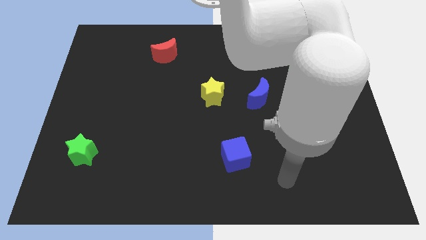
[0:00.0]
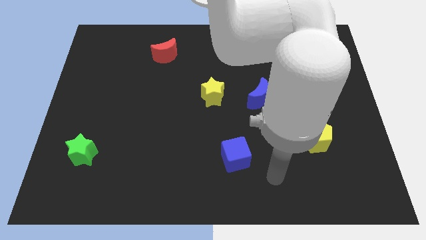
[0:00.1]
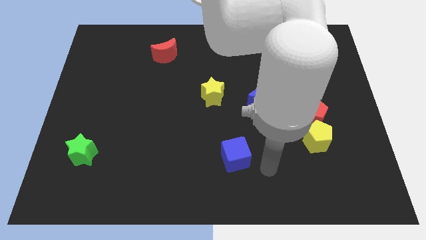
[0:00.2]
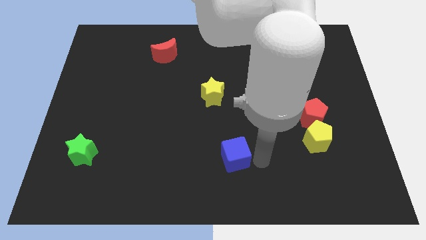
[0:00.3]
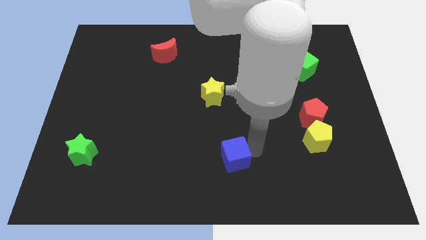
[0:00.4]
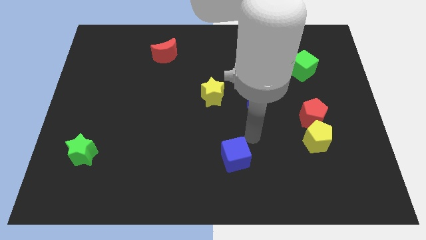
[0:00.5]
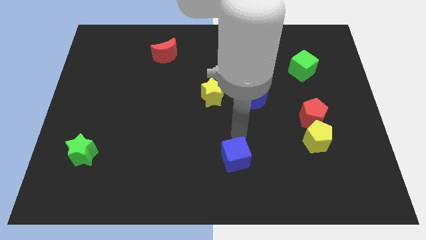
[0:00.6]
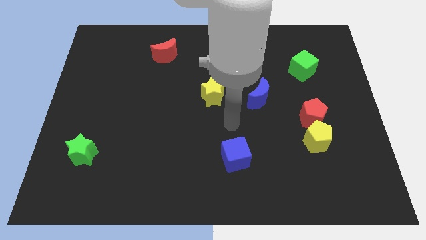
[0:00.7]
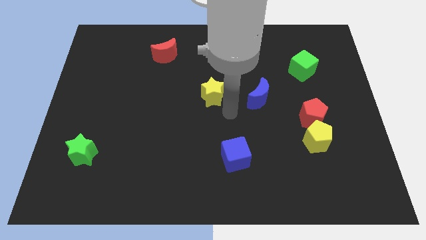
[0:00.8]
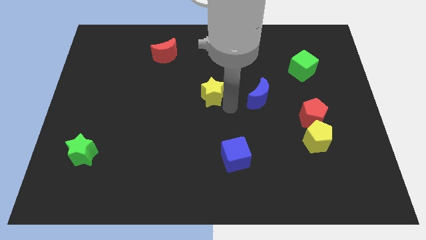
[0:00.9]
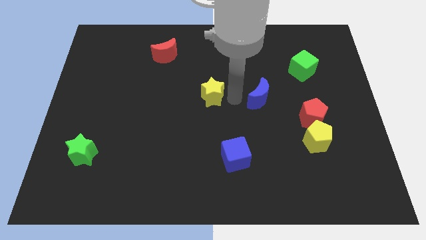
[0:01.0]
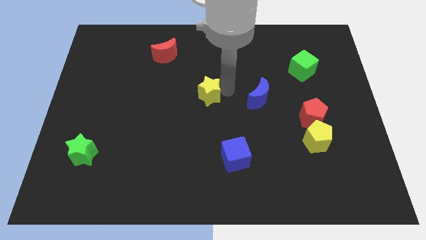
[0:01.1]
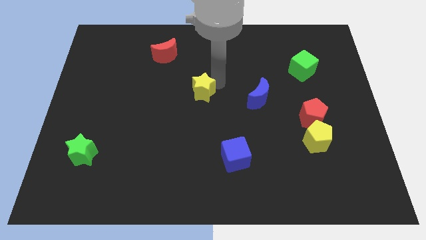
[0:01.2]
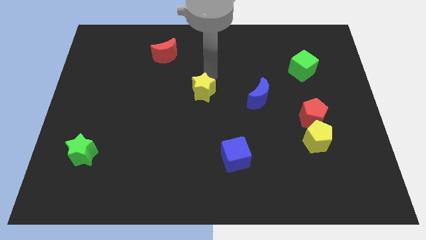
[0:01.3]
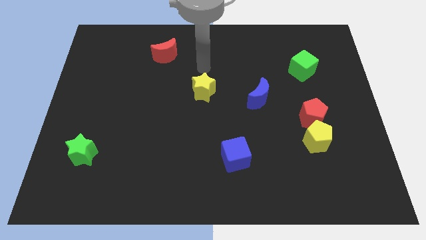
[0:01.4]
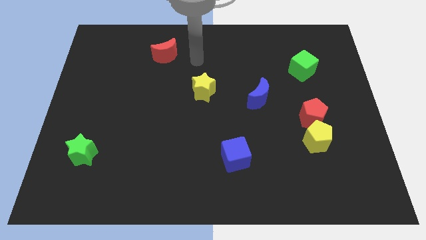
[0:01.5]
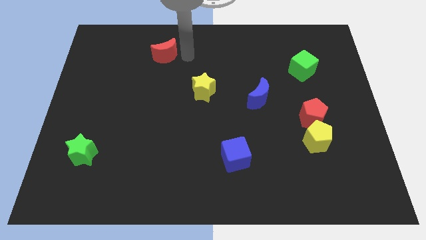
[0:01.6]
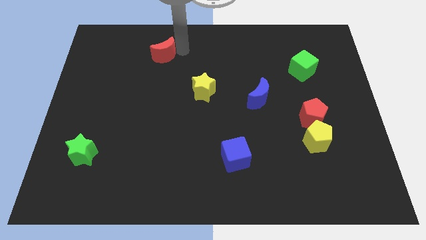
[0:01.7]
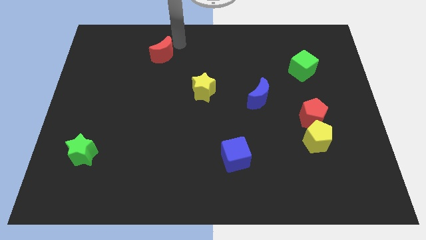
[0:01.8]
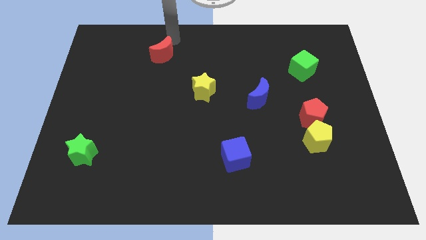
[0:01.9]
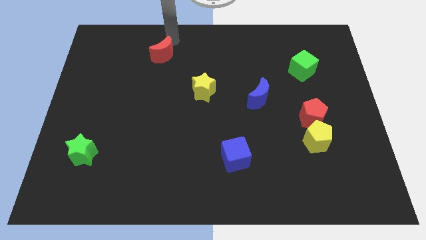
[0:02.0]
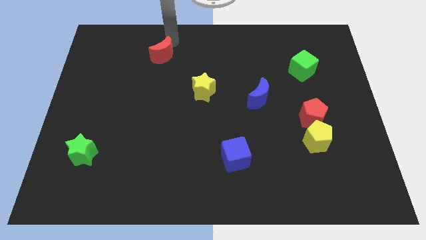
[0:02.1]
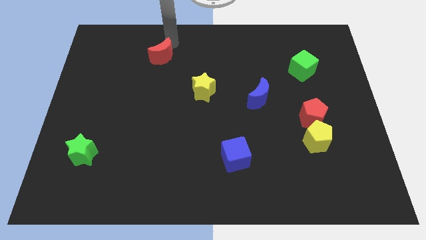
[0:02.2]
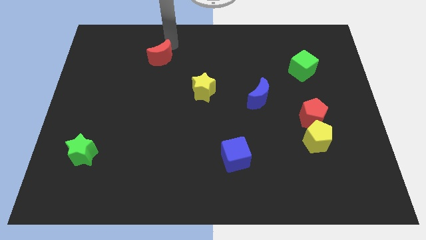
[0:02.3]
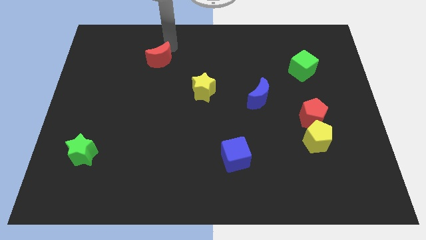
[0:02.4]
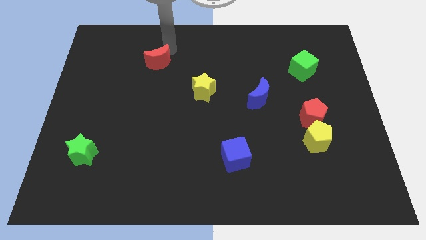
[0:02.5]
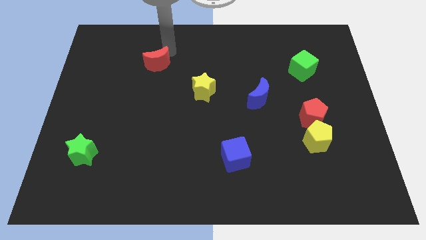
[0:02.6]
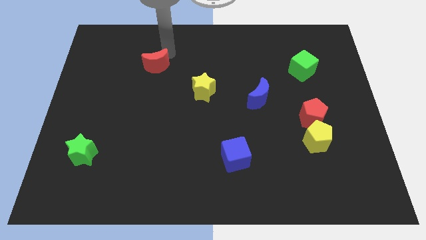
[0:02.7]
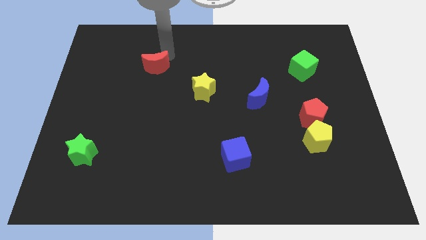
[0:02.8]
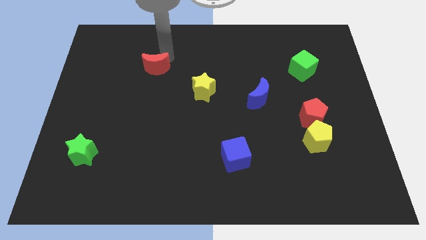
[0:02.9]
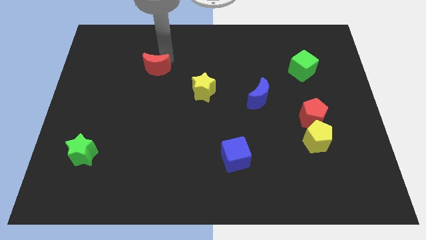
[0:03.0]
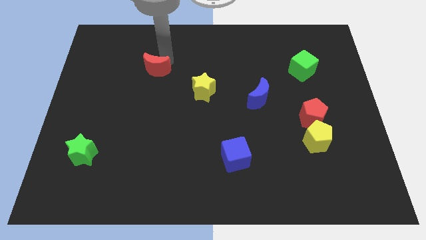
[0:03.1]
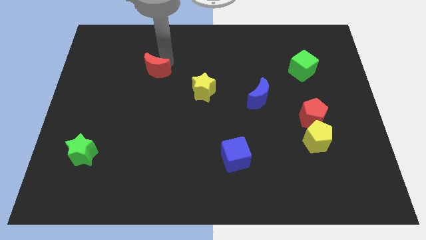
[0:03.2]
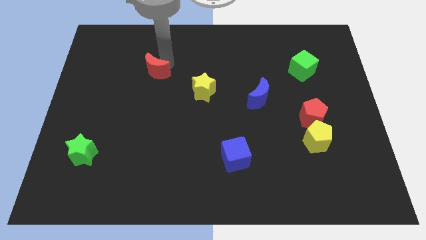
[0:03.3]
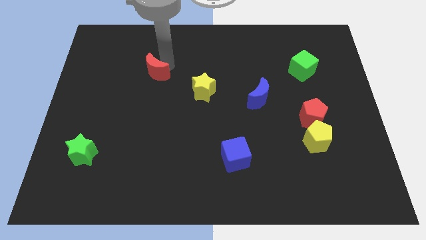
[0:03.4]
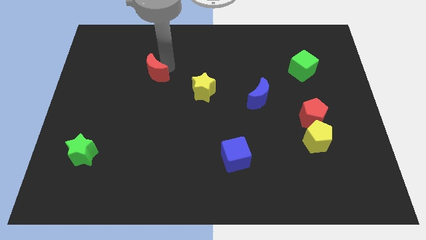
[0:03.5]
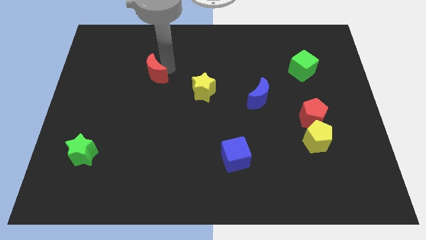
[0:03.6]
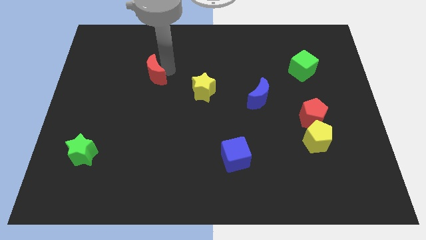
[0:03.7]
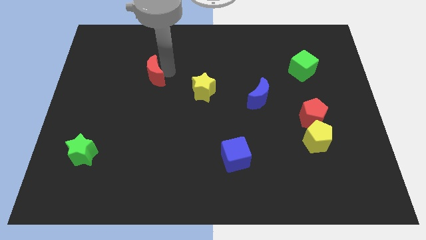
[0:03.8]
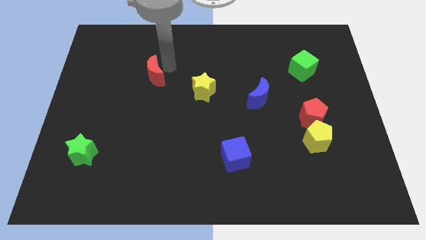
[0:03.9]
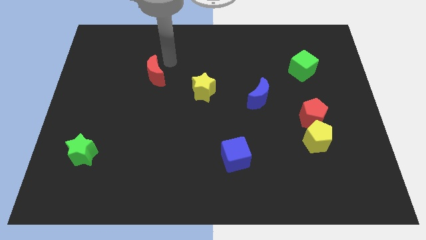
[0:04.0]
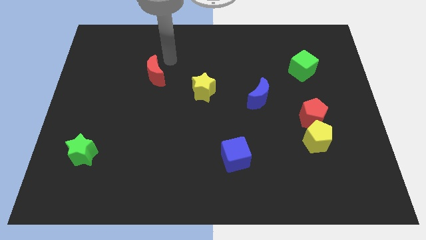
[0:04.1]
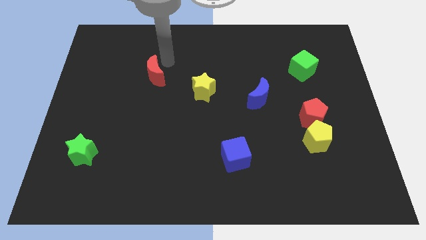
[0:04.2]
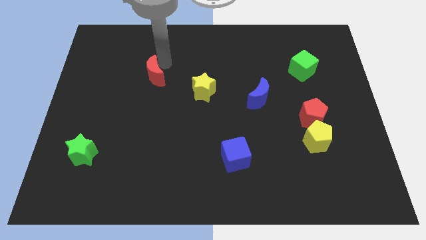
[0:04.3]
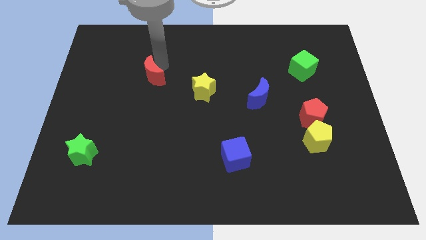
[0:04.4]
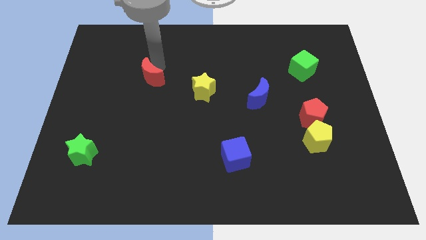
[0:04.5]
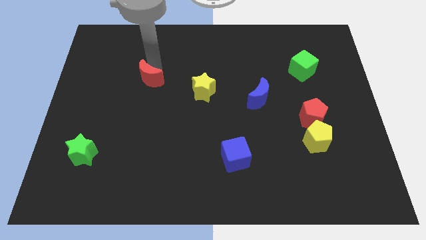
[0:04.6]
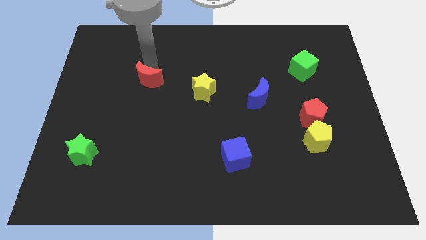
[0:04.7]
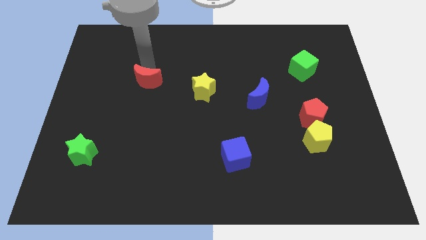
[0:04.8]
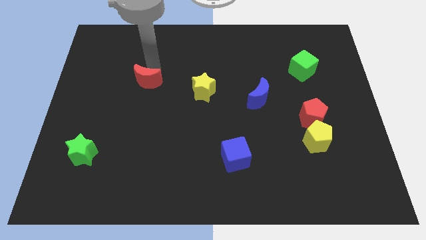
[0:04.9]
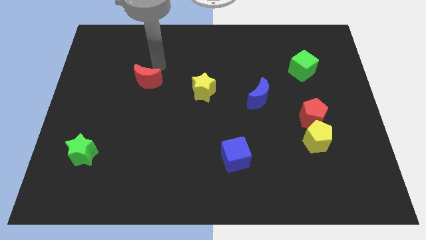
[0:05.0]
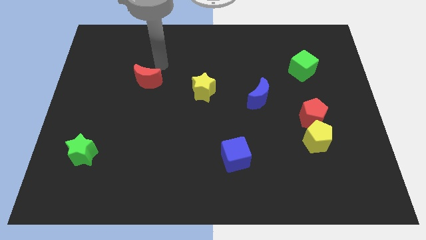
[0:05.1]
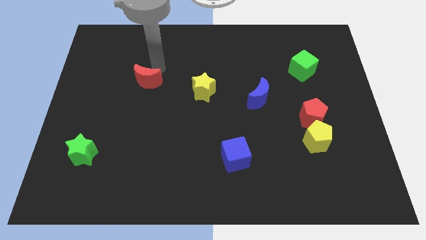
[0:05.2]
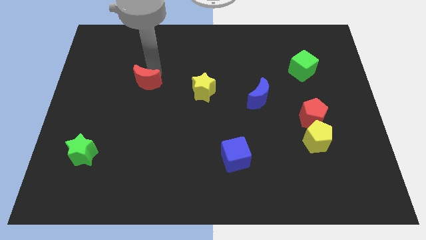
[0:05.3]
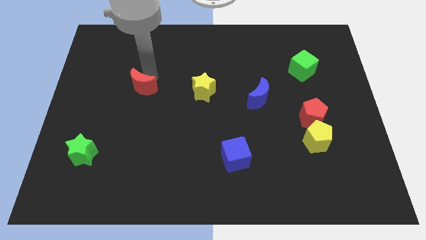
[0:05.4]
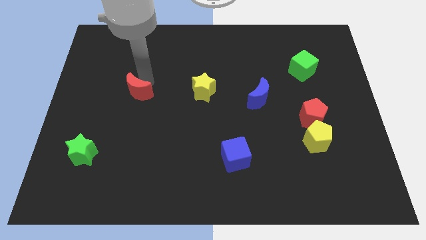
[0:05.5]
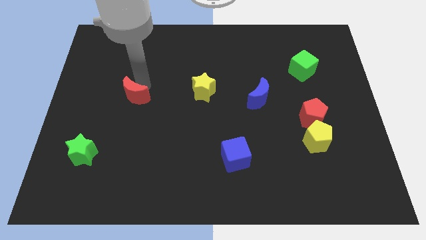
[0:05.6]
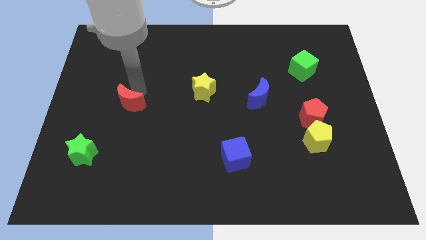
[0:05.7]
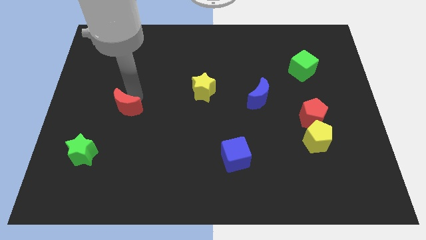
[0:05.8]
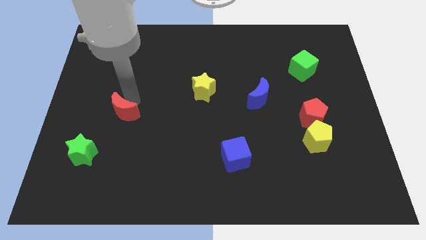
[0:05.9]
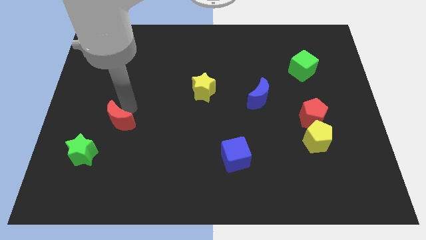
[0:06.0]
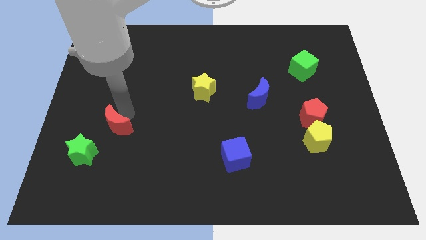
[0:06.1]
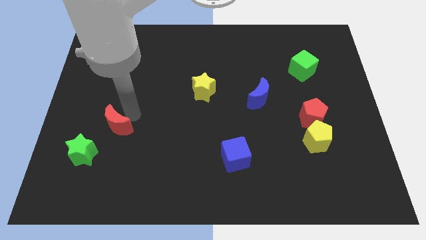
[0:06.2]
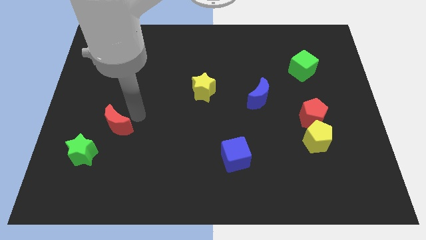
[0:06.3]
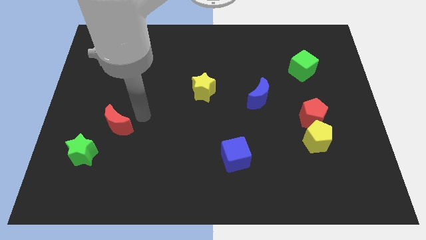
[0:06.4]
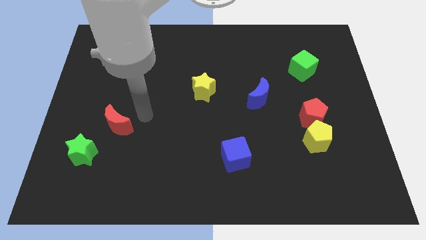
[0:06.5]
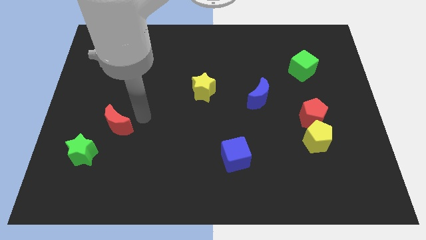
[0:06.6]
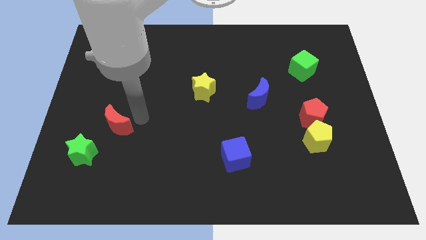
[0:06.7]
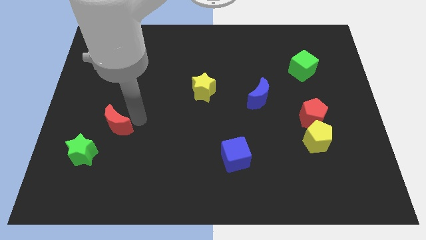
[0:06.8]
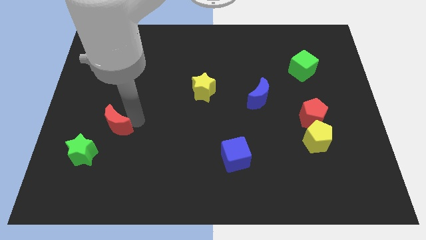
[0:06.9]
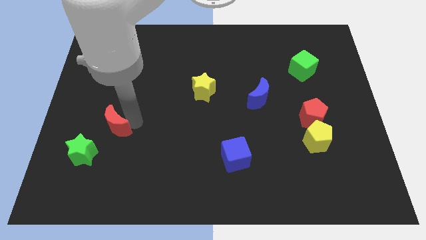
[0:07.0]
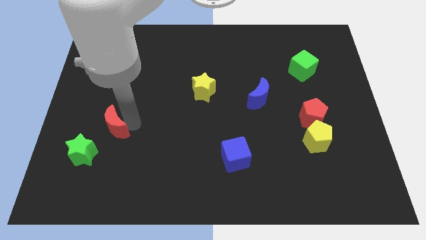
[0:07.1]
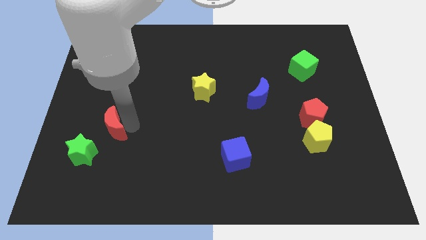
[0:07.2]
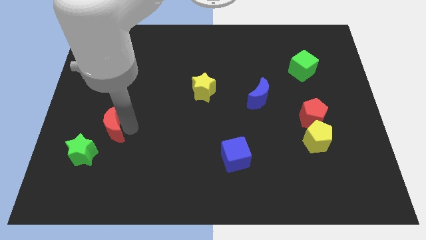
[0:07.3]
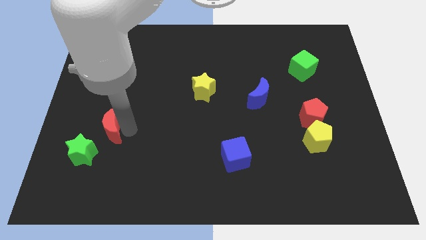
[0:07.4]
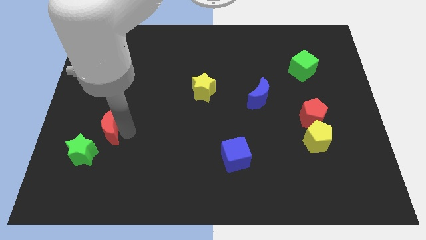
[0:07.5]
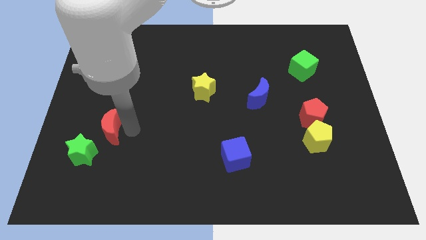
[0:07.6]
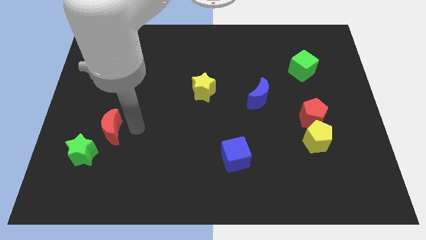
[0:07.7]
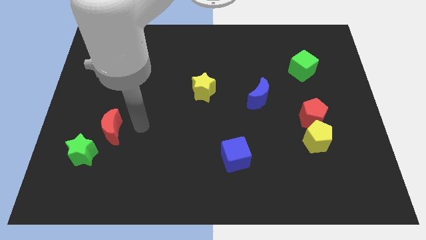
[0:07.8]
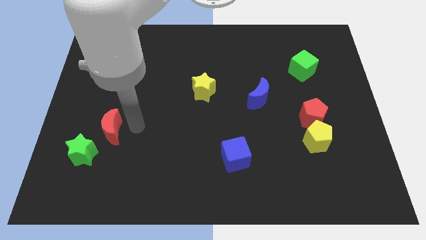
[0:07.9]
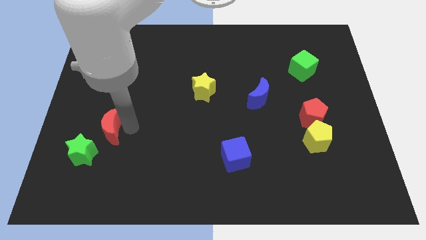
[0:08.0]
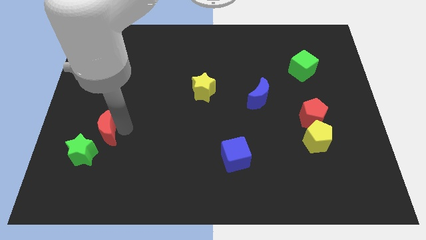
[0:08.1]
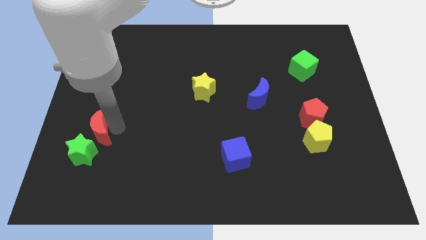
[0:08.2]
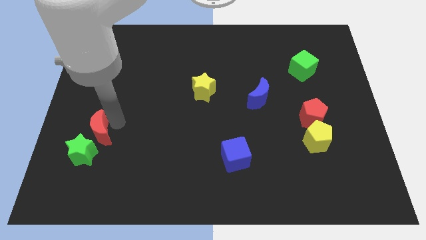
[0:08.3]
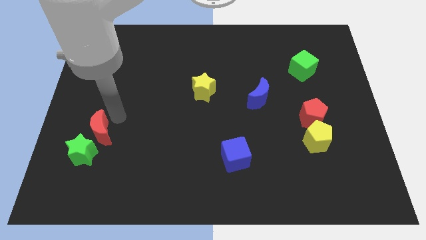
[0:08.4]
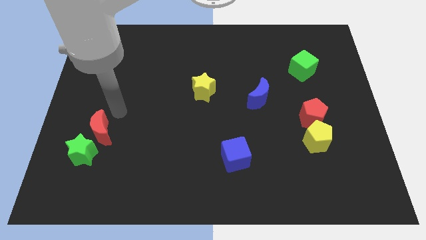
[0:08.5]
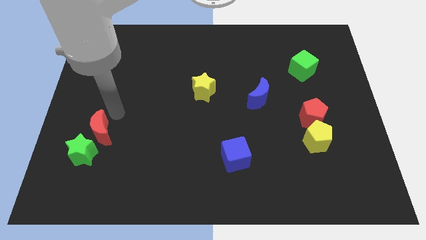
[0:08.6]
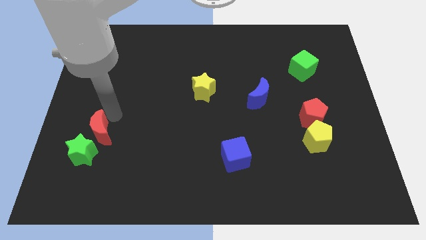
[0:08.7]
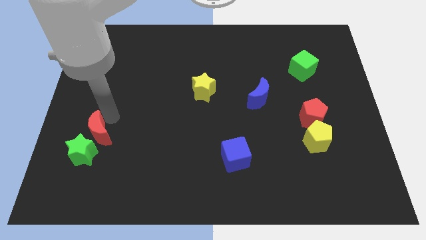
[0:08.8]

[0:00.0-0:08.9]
push the red moon close to the green star
